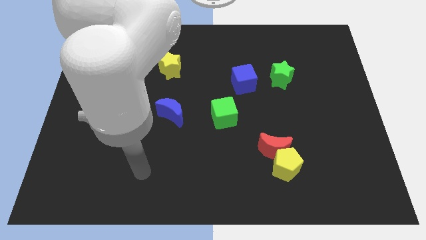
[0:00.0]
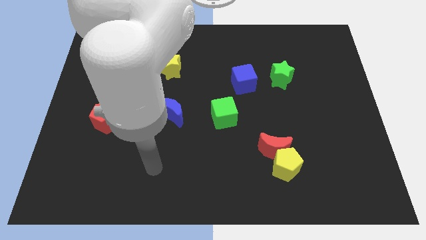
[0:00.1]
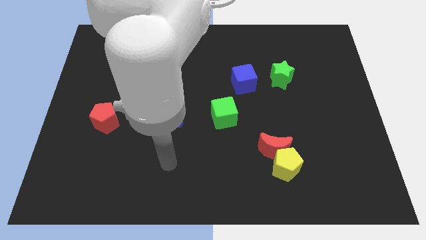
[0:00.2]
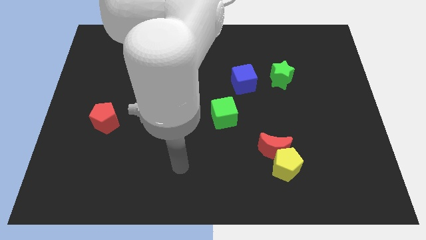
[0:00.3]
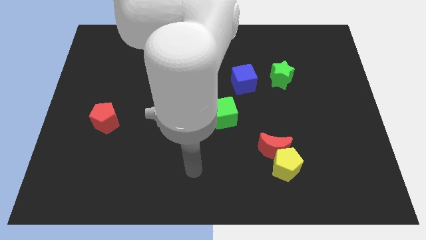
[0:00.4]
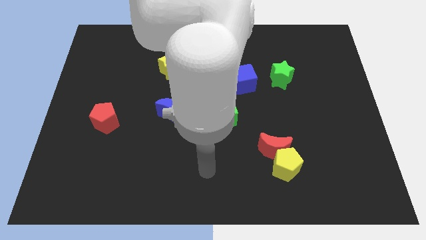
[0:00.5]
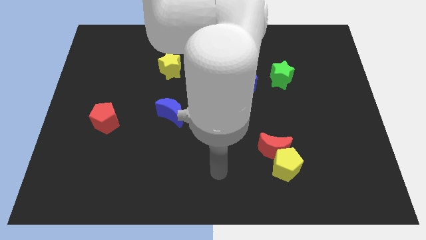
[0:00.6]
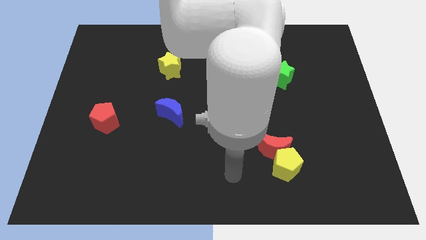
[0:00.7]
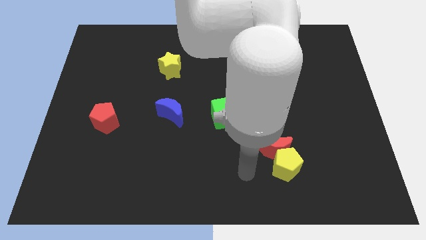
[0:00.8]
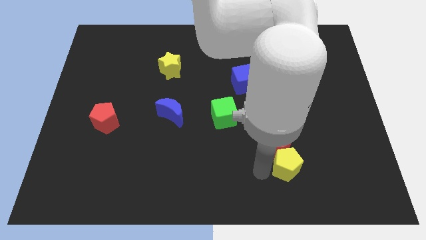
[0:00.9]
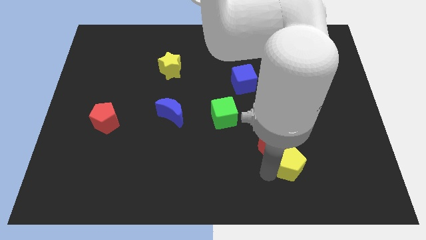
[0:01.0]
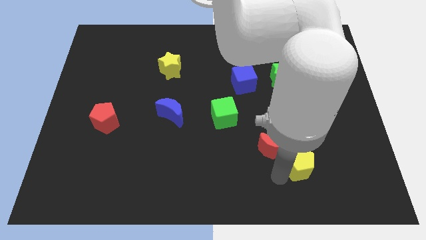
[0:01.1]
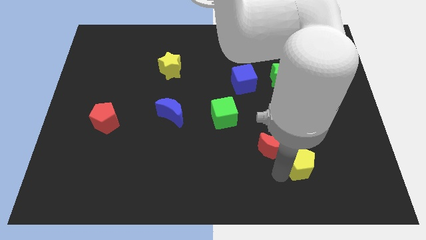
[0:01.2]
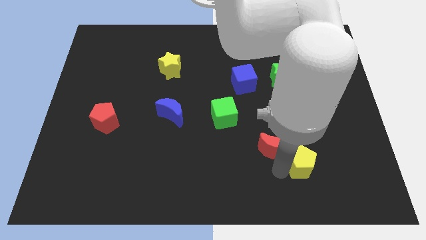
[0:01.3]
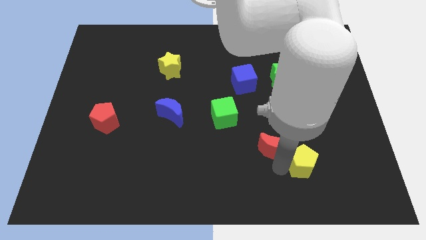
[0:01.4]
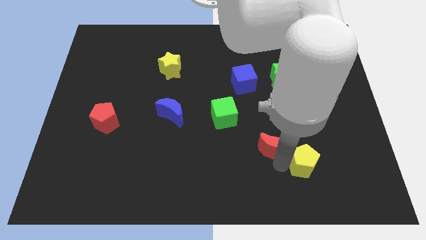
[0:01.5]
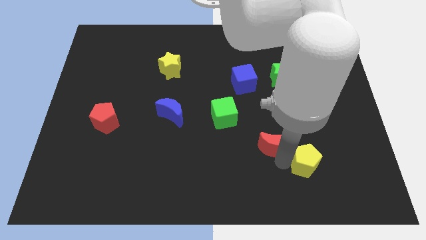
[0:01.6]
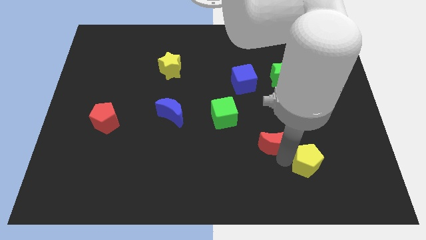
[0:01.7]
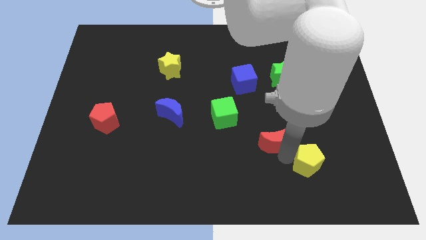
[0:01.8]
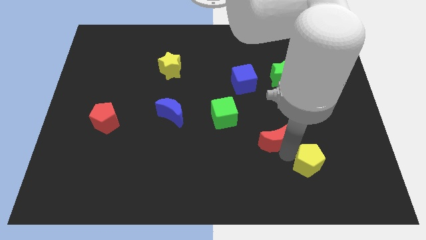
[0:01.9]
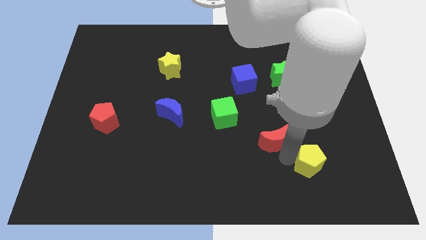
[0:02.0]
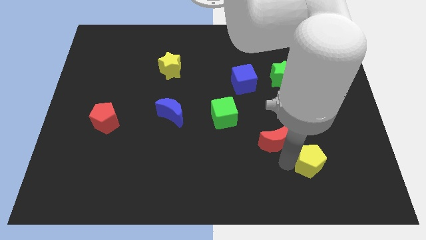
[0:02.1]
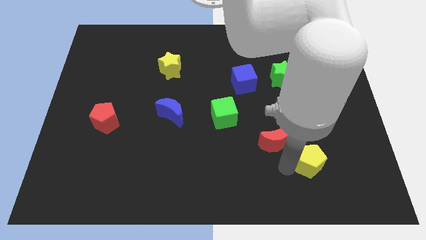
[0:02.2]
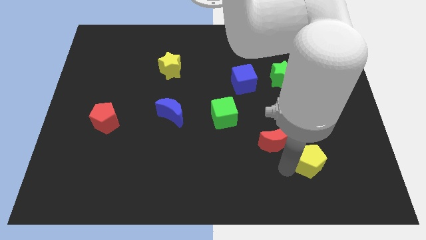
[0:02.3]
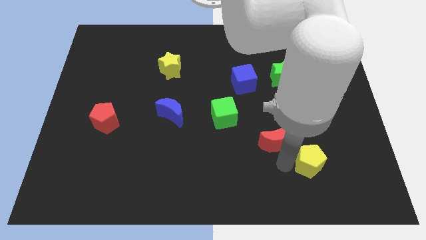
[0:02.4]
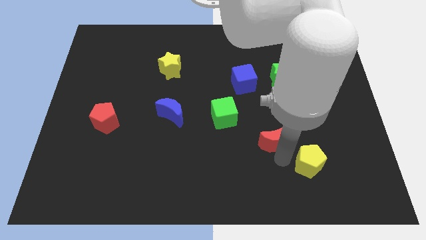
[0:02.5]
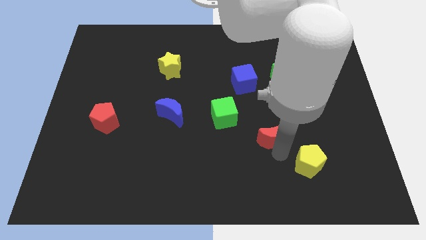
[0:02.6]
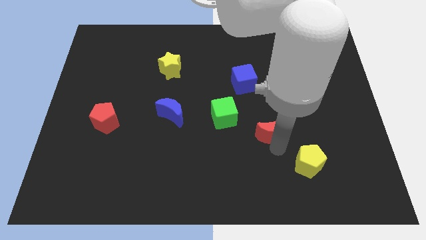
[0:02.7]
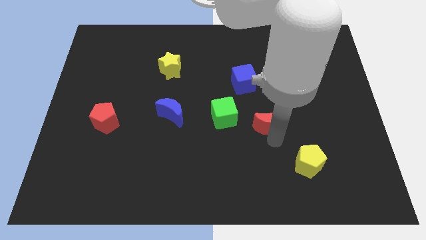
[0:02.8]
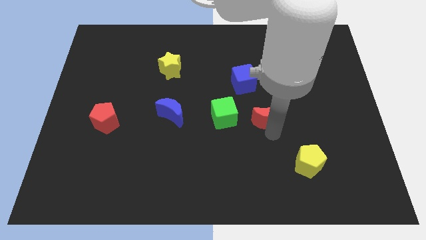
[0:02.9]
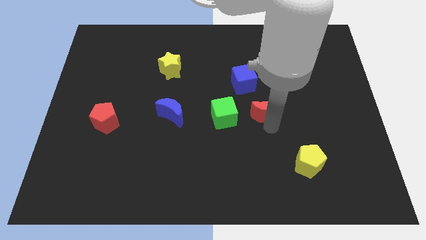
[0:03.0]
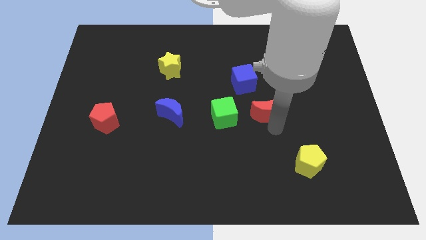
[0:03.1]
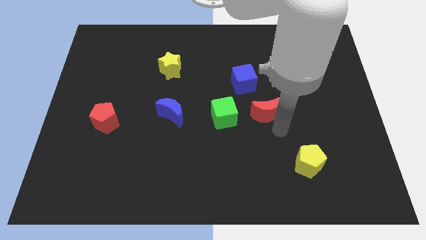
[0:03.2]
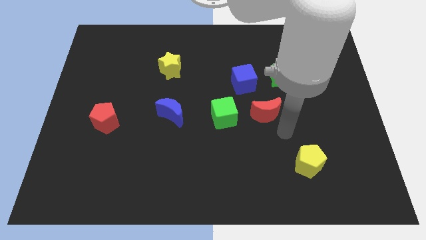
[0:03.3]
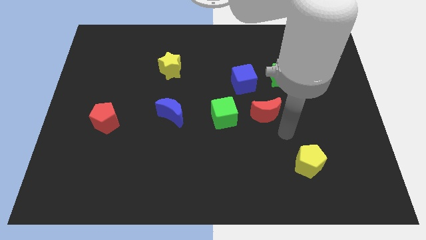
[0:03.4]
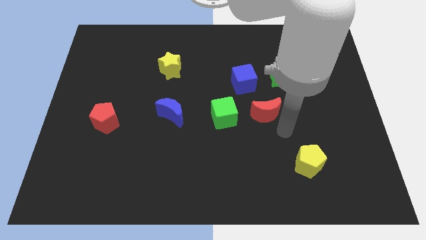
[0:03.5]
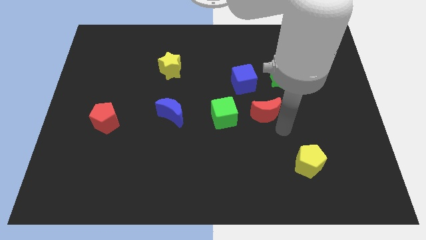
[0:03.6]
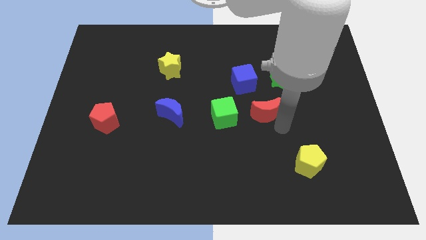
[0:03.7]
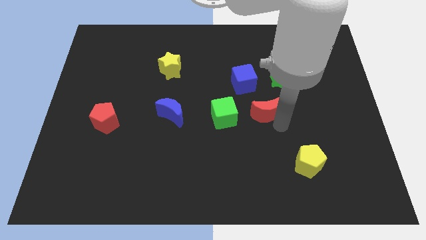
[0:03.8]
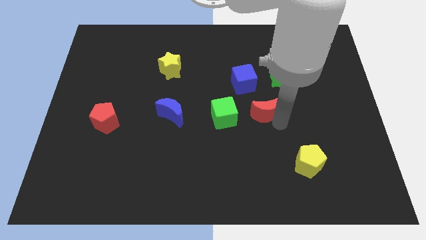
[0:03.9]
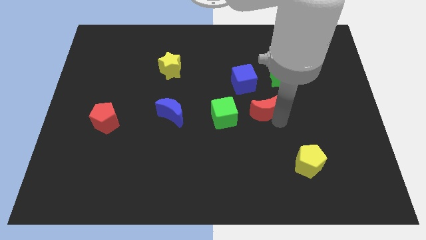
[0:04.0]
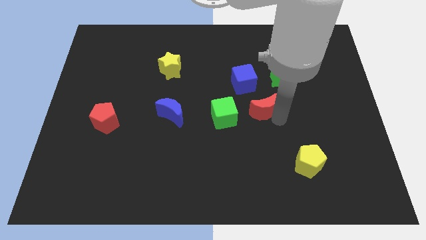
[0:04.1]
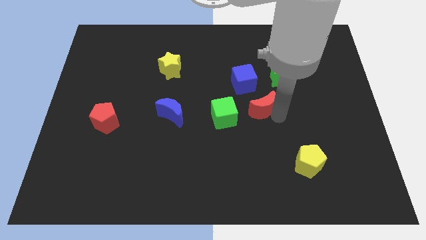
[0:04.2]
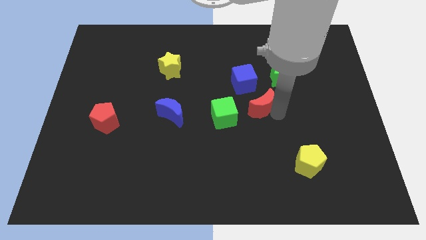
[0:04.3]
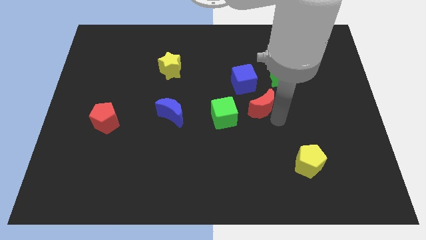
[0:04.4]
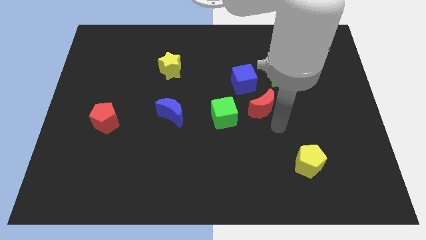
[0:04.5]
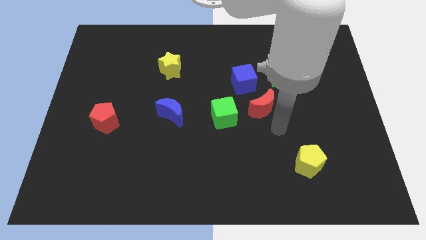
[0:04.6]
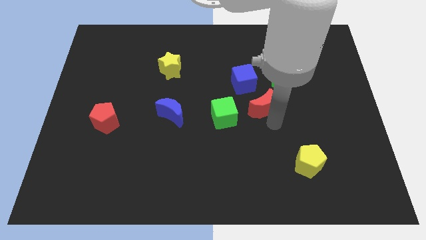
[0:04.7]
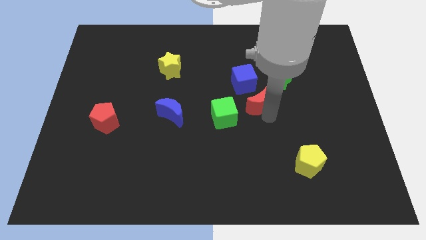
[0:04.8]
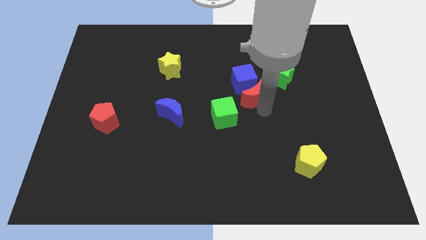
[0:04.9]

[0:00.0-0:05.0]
put the red moon close to the blue cube

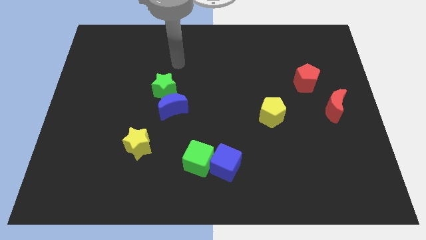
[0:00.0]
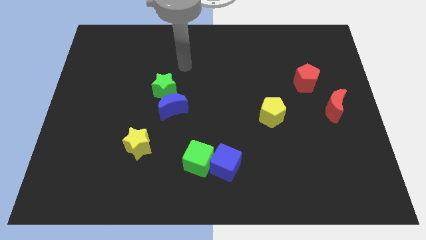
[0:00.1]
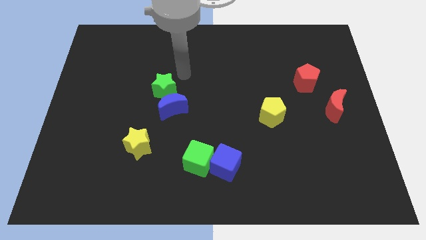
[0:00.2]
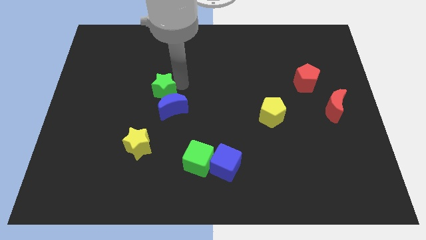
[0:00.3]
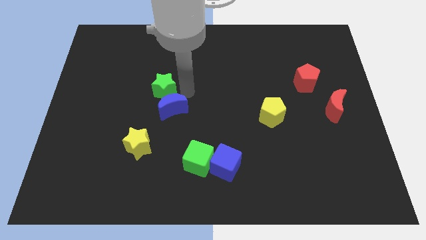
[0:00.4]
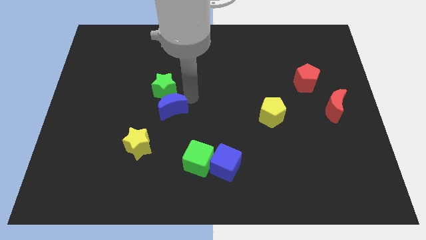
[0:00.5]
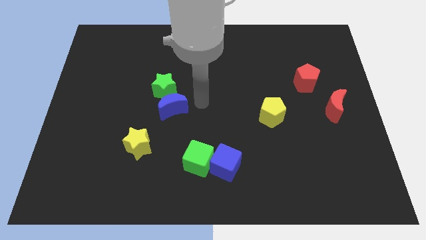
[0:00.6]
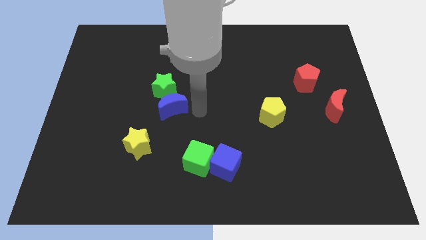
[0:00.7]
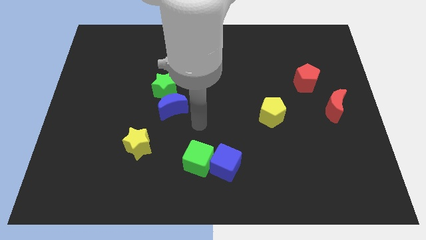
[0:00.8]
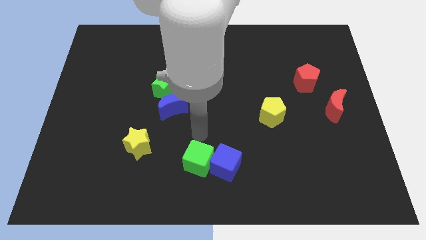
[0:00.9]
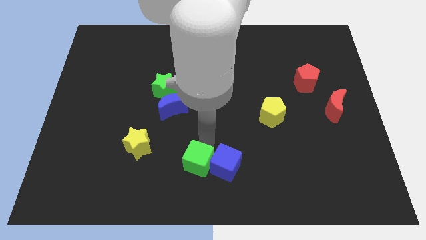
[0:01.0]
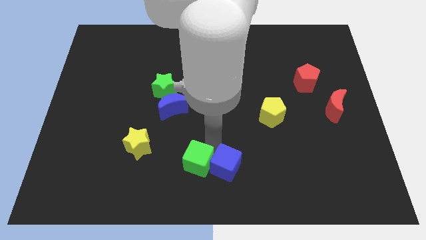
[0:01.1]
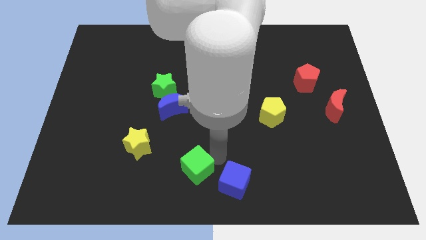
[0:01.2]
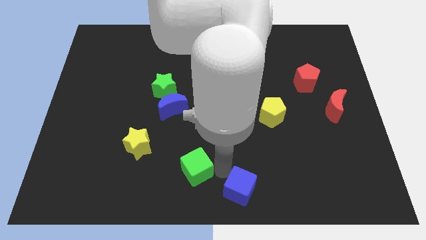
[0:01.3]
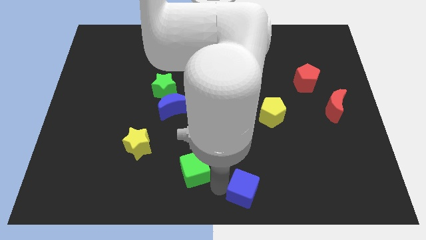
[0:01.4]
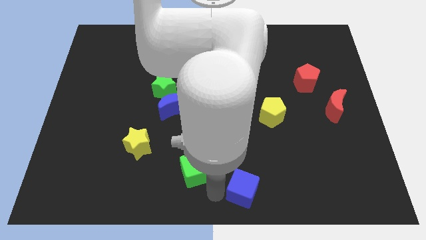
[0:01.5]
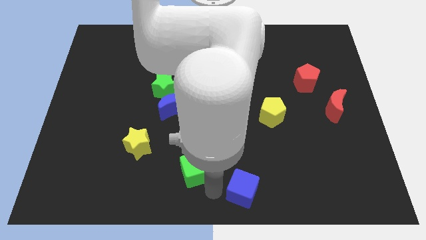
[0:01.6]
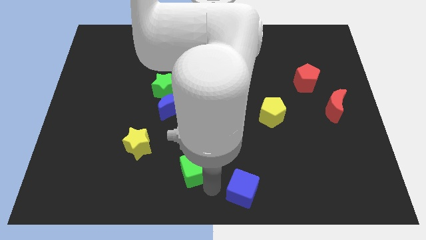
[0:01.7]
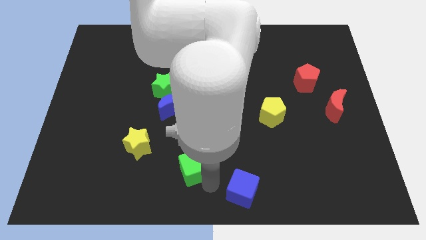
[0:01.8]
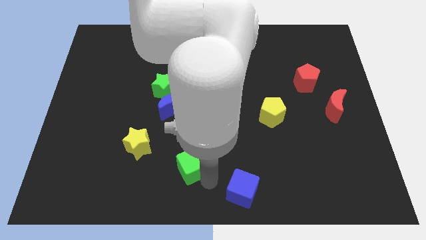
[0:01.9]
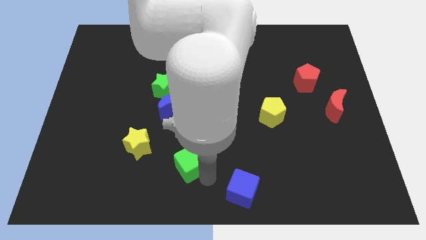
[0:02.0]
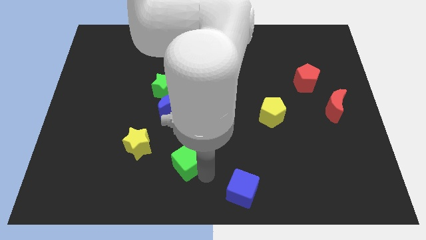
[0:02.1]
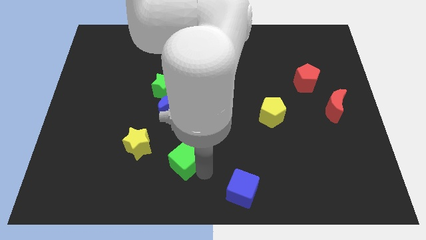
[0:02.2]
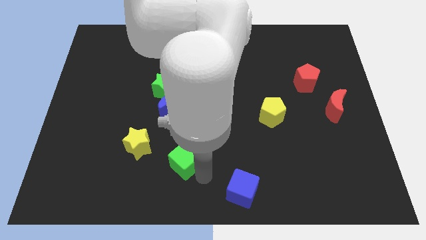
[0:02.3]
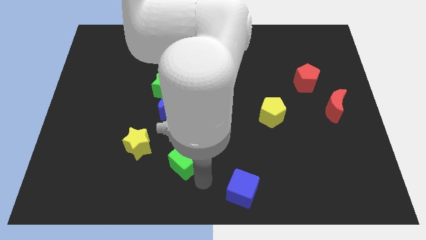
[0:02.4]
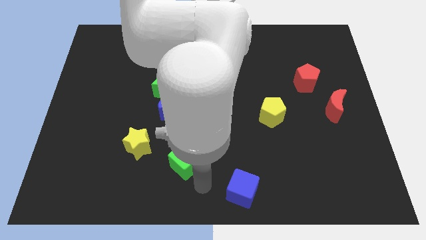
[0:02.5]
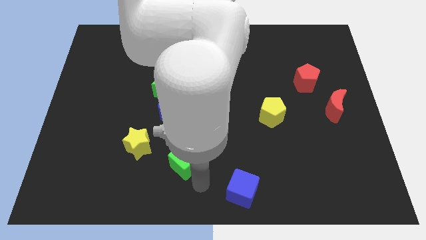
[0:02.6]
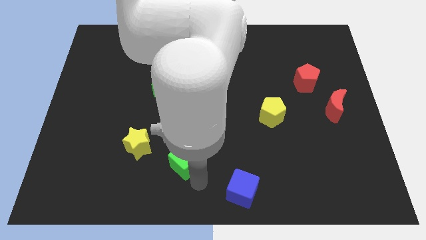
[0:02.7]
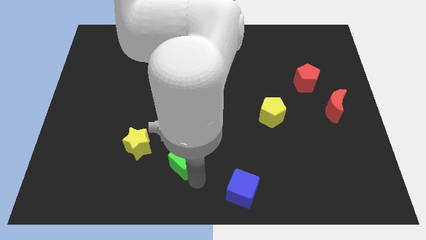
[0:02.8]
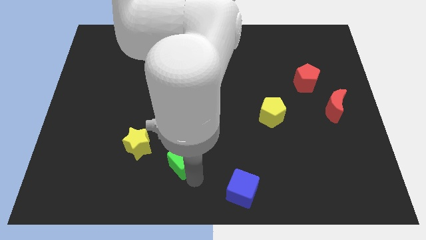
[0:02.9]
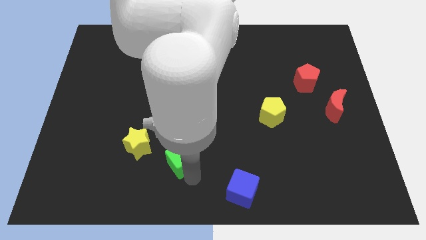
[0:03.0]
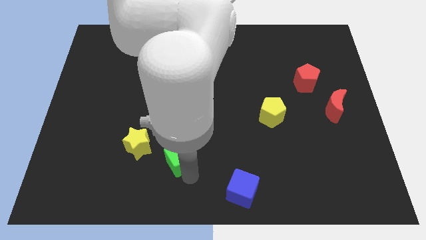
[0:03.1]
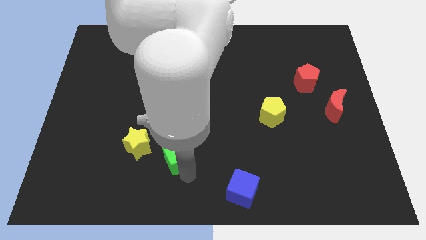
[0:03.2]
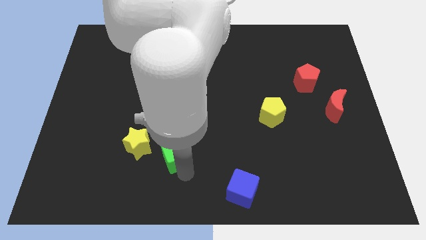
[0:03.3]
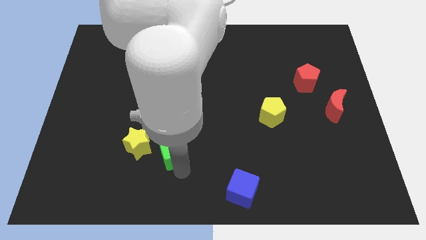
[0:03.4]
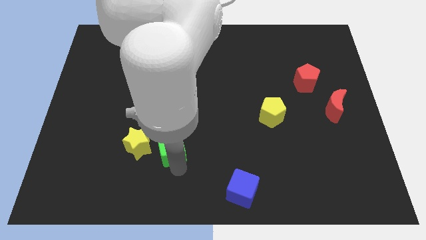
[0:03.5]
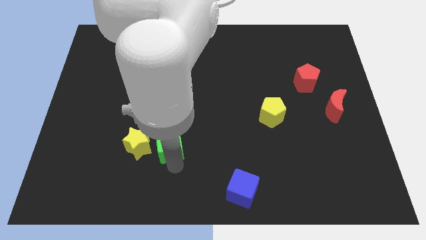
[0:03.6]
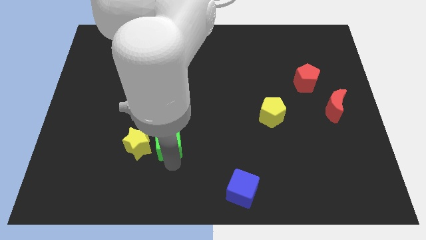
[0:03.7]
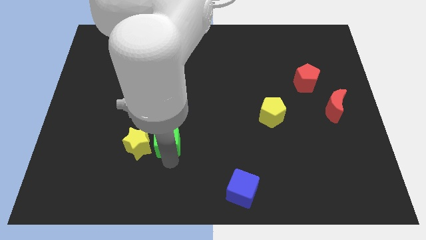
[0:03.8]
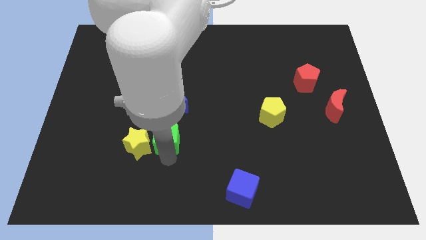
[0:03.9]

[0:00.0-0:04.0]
push the green cube towards the yellow star
